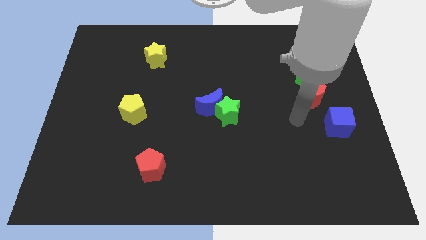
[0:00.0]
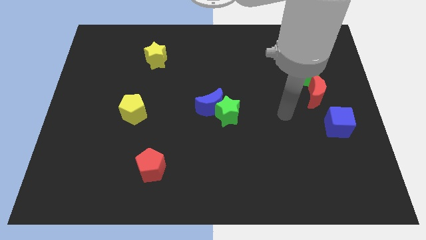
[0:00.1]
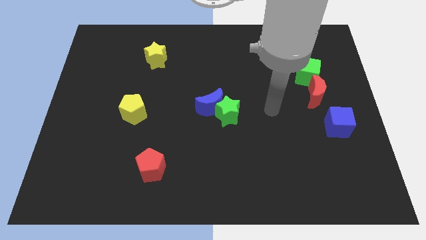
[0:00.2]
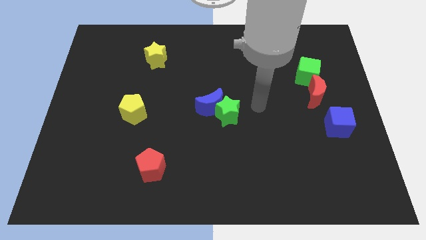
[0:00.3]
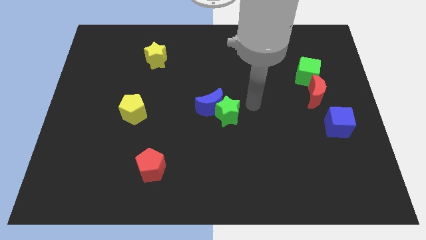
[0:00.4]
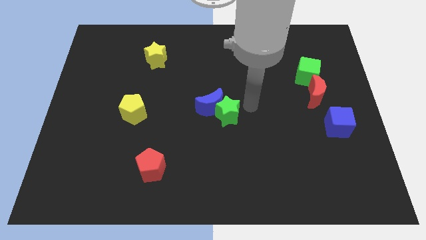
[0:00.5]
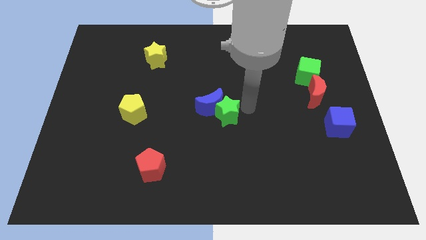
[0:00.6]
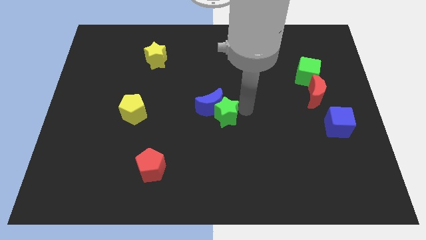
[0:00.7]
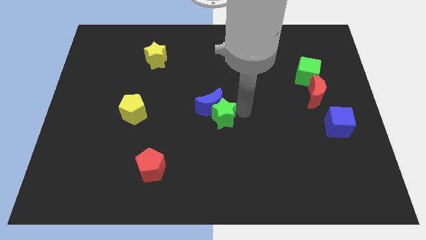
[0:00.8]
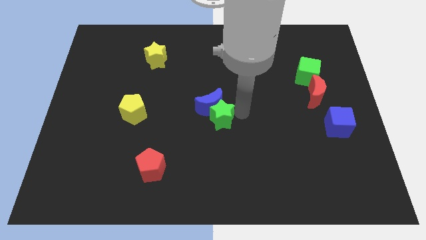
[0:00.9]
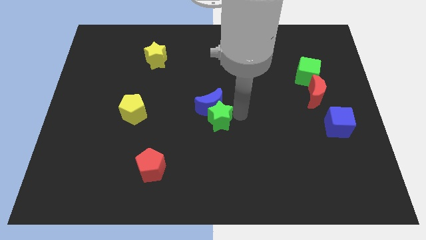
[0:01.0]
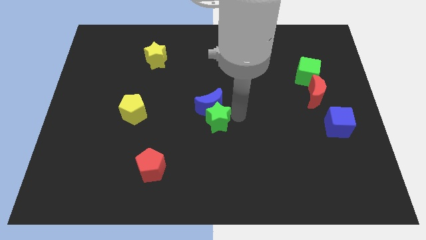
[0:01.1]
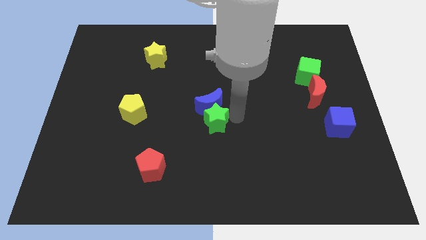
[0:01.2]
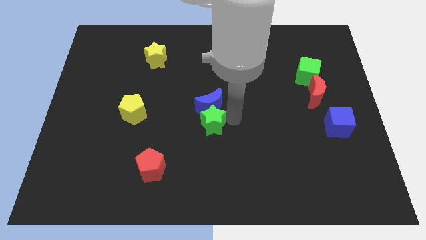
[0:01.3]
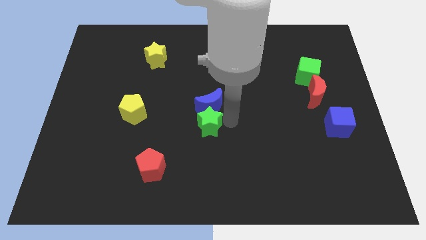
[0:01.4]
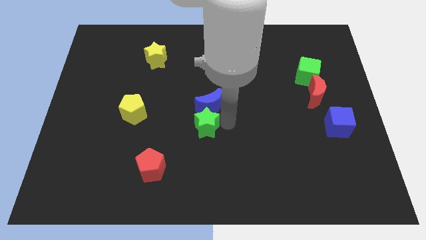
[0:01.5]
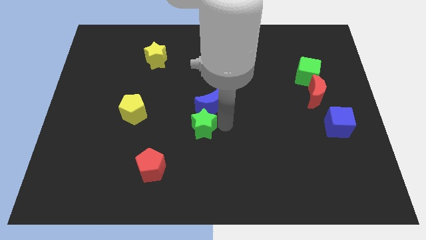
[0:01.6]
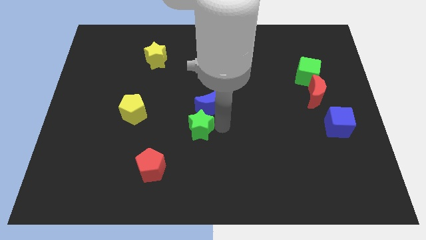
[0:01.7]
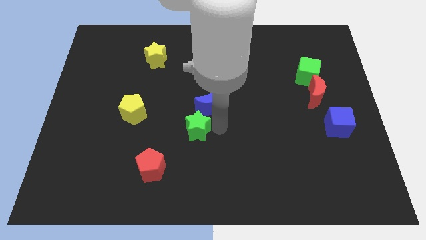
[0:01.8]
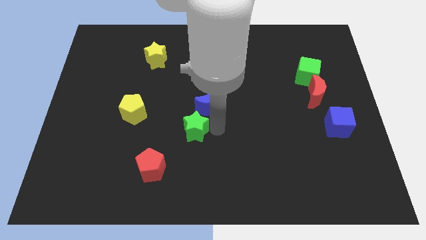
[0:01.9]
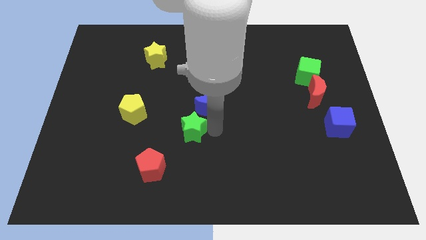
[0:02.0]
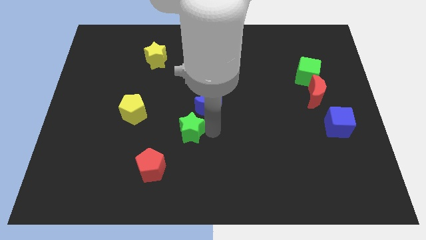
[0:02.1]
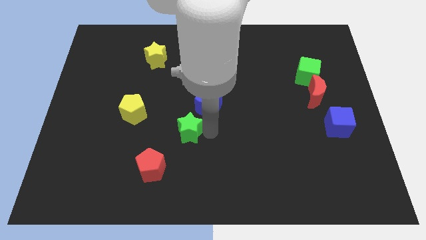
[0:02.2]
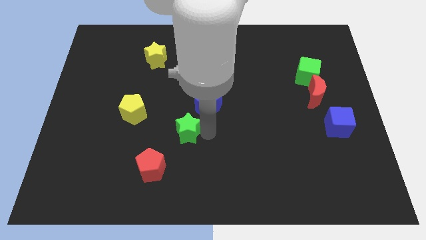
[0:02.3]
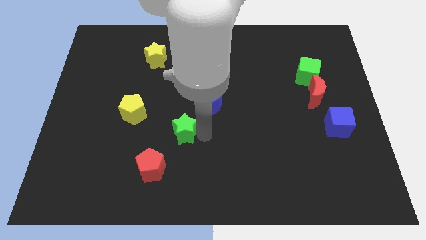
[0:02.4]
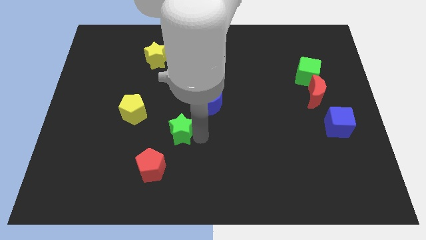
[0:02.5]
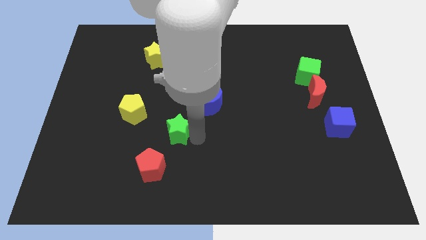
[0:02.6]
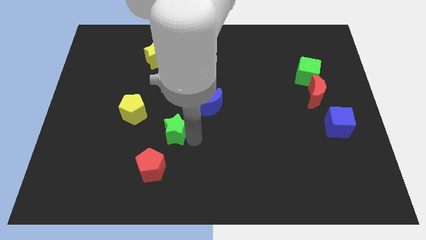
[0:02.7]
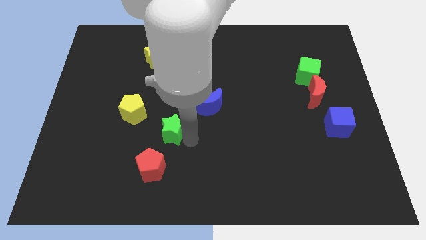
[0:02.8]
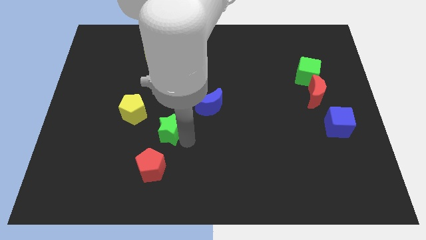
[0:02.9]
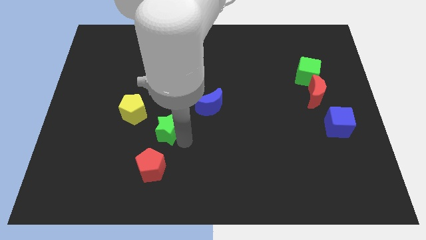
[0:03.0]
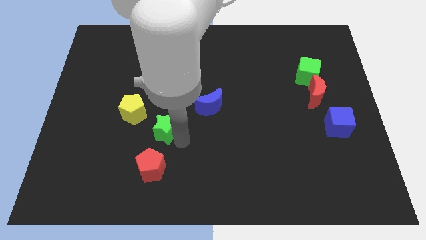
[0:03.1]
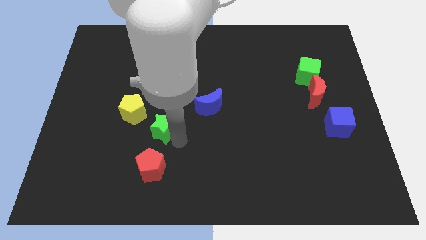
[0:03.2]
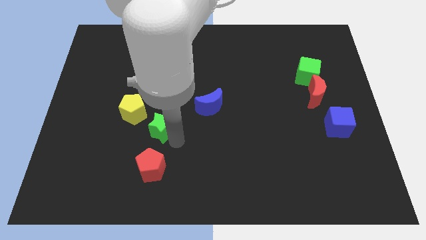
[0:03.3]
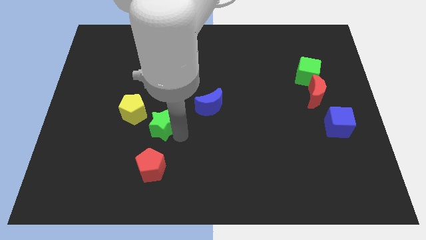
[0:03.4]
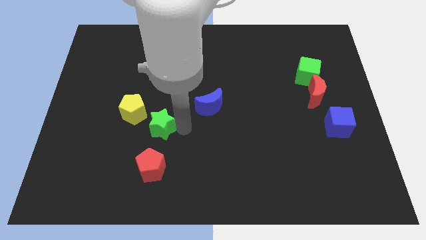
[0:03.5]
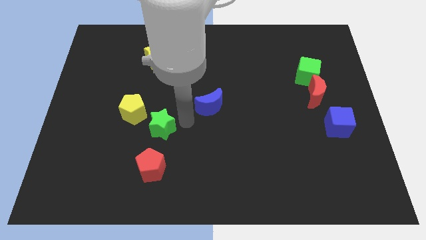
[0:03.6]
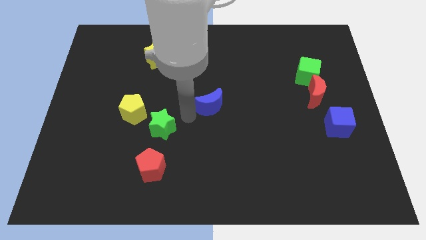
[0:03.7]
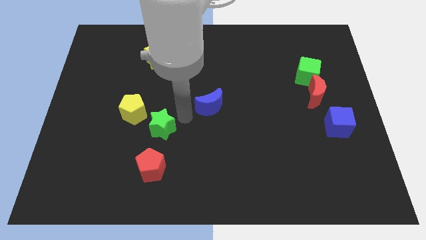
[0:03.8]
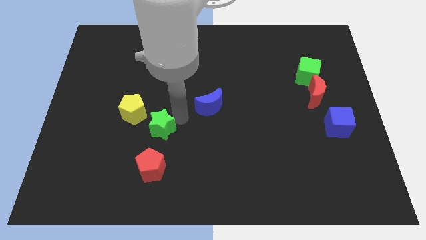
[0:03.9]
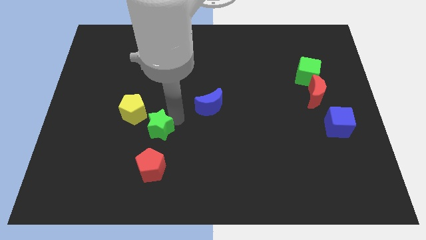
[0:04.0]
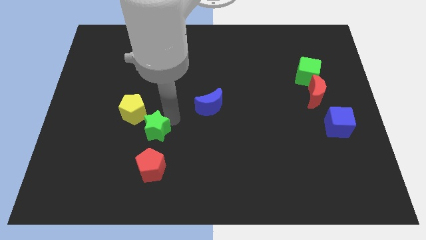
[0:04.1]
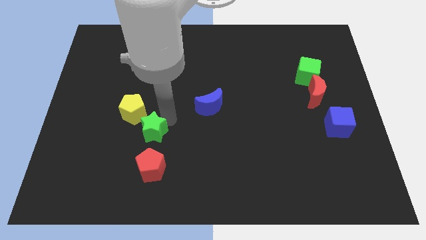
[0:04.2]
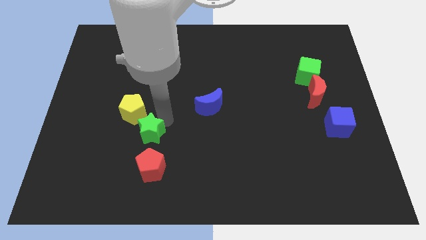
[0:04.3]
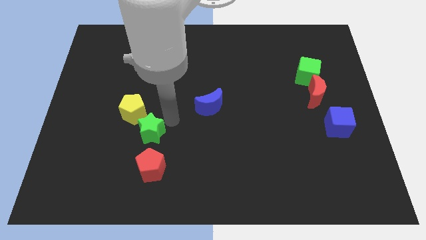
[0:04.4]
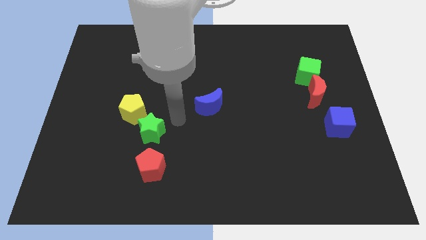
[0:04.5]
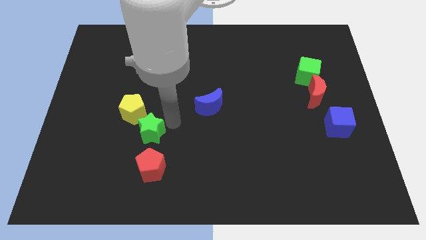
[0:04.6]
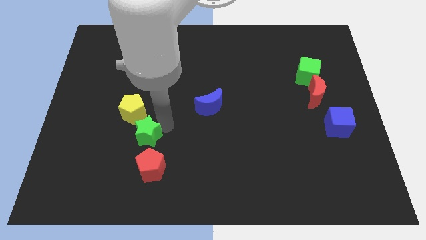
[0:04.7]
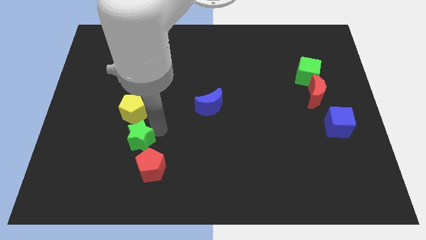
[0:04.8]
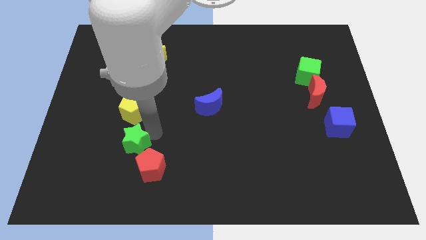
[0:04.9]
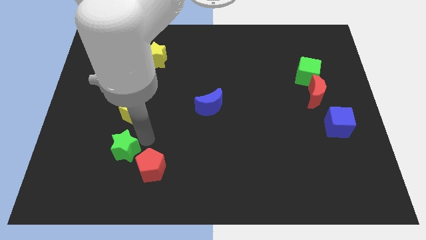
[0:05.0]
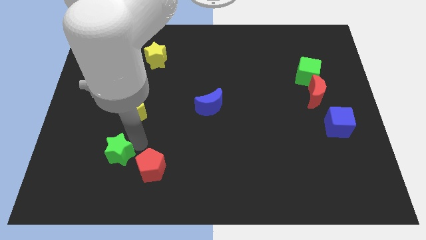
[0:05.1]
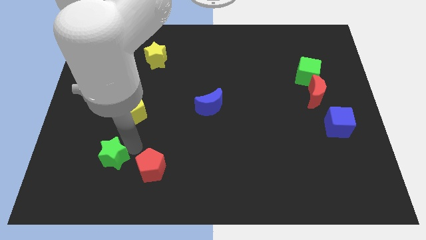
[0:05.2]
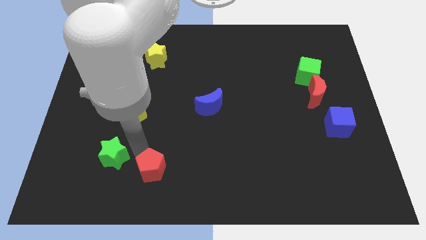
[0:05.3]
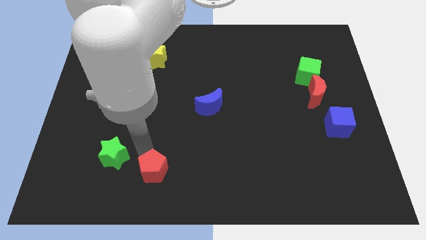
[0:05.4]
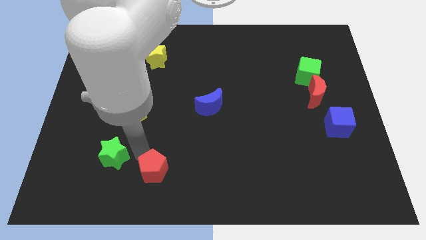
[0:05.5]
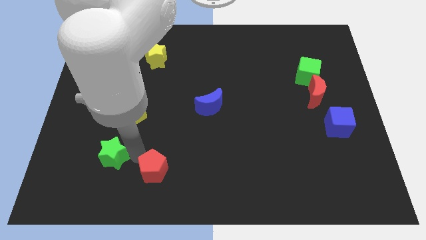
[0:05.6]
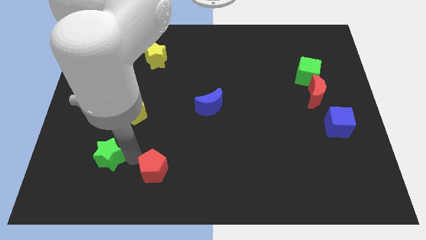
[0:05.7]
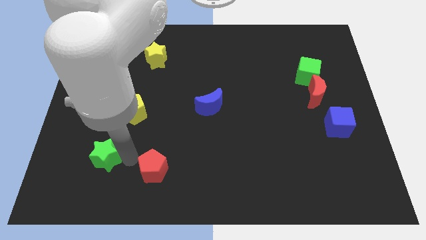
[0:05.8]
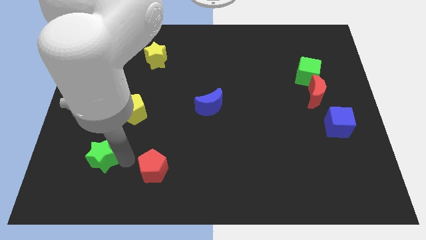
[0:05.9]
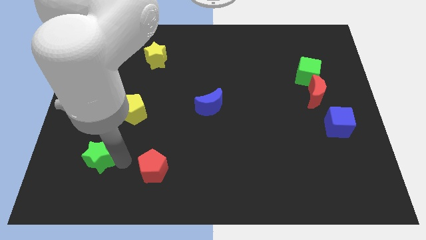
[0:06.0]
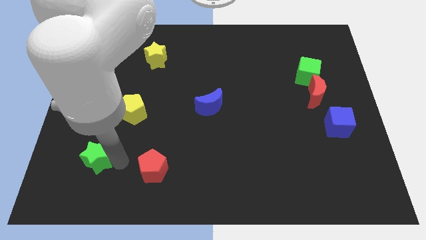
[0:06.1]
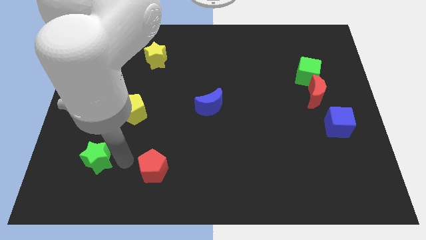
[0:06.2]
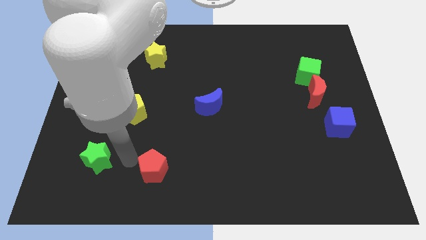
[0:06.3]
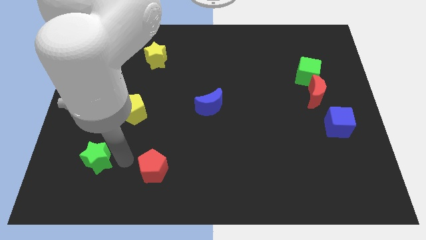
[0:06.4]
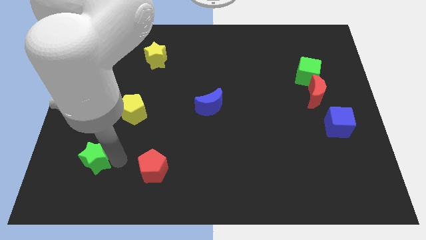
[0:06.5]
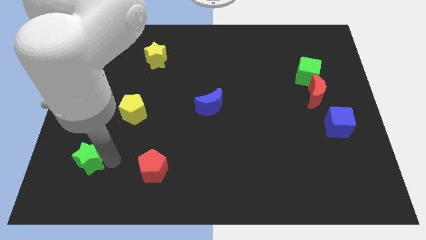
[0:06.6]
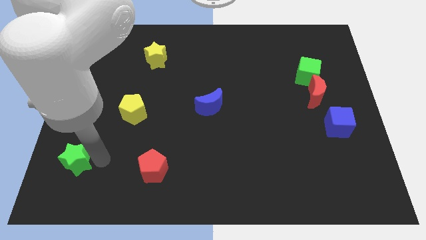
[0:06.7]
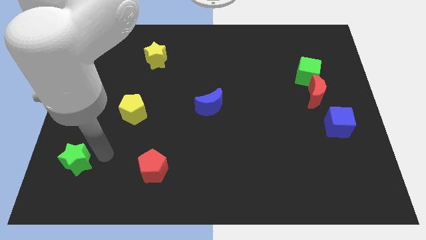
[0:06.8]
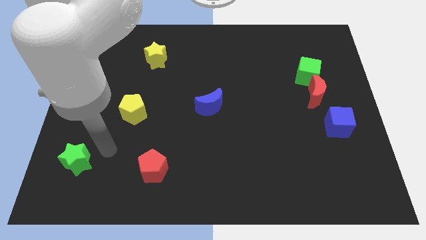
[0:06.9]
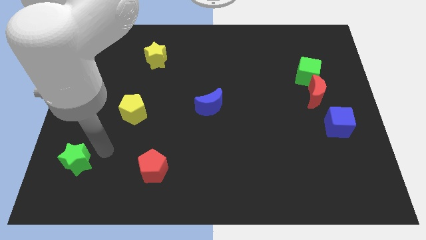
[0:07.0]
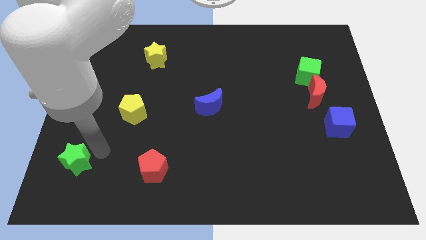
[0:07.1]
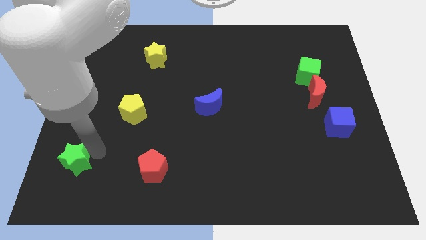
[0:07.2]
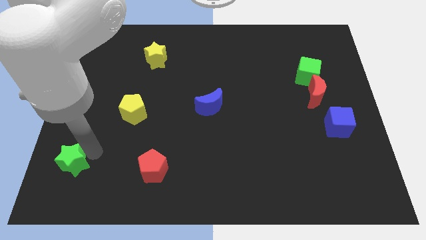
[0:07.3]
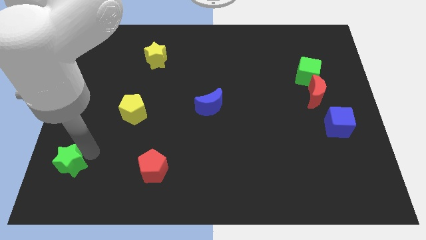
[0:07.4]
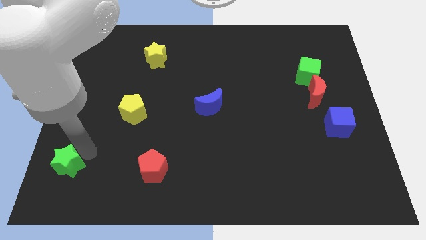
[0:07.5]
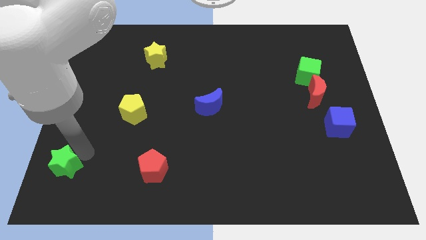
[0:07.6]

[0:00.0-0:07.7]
move the green star to the bottom left of the board
